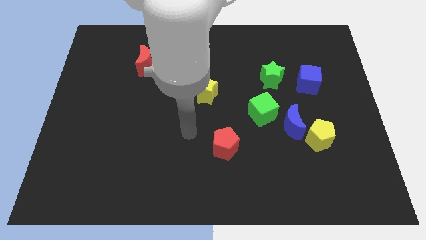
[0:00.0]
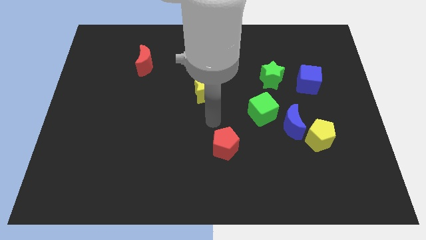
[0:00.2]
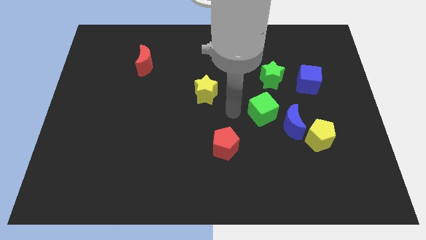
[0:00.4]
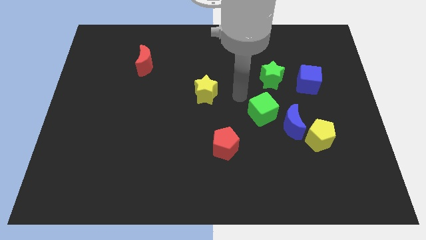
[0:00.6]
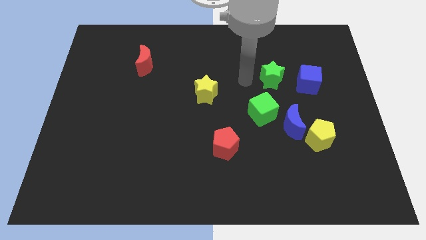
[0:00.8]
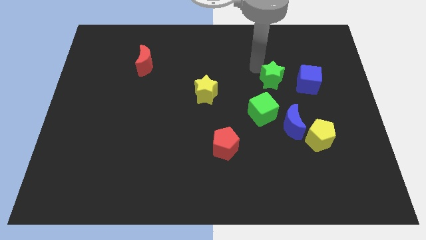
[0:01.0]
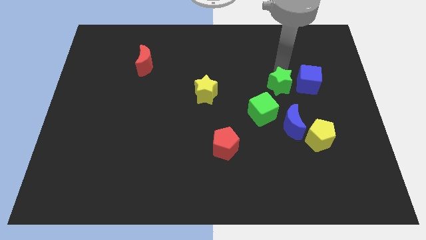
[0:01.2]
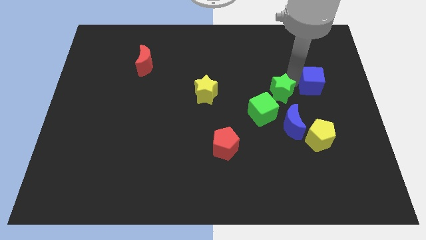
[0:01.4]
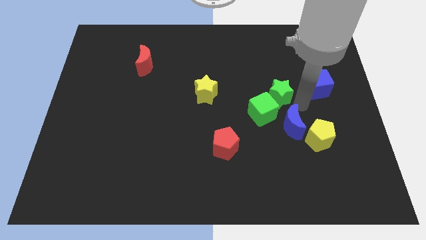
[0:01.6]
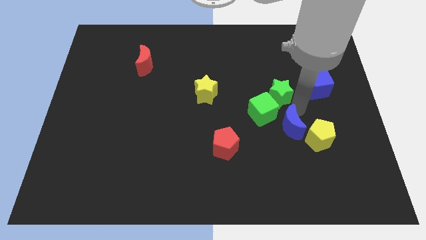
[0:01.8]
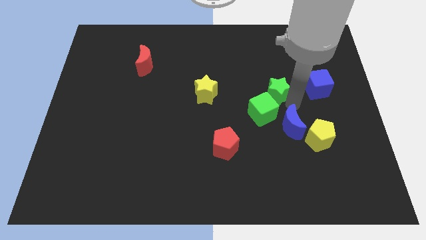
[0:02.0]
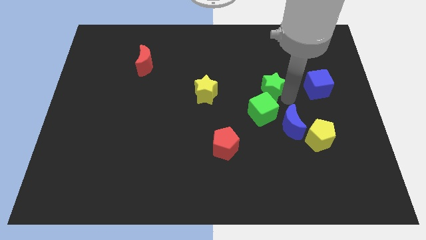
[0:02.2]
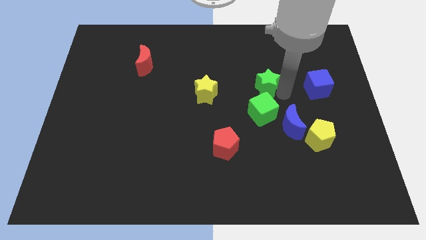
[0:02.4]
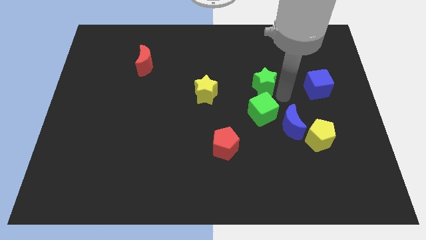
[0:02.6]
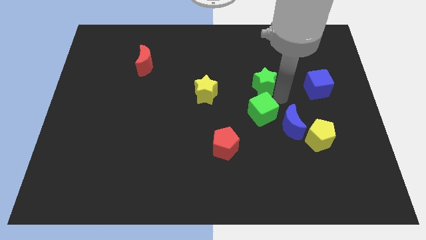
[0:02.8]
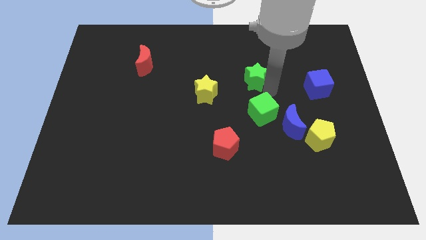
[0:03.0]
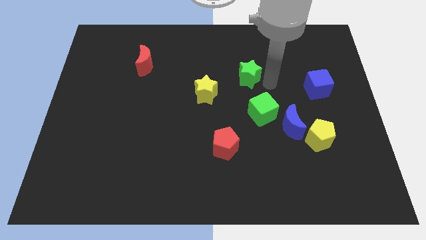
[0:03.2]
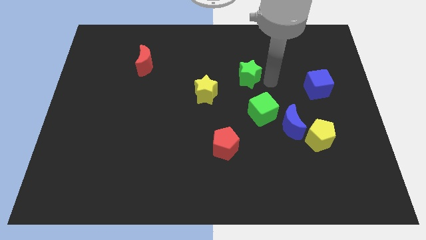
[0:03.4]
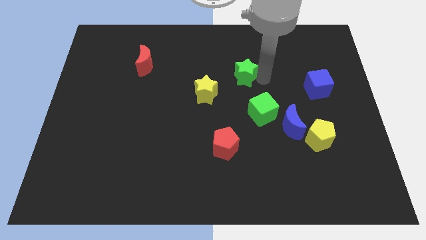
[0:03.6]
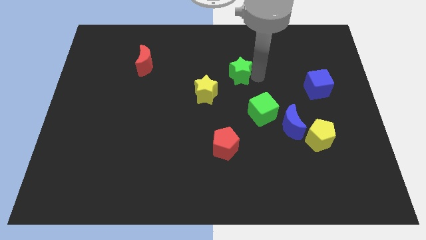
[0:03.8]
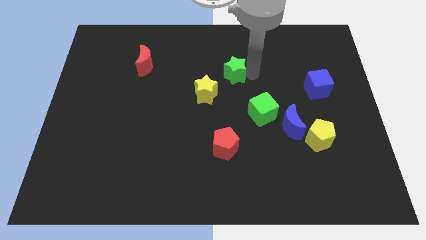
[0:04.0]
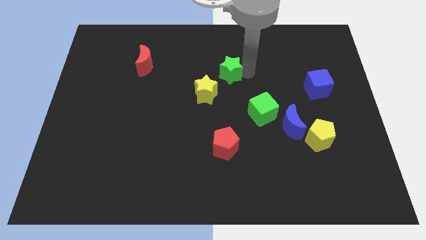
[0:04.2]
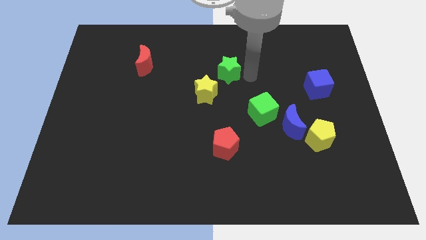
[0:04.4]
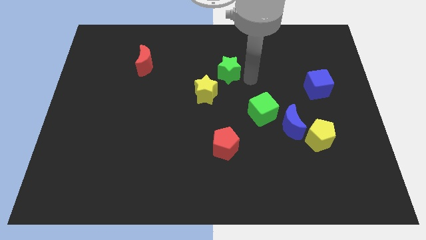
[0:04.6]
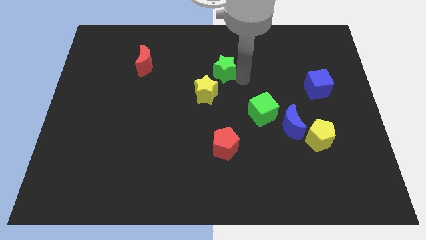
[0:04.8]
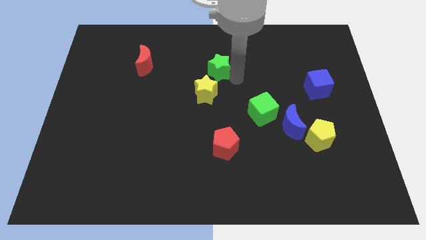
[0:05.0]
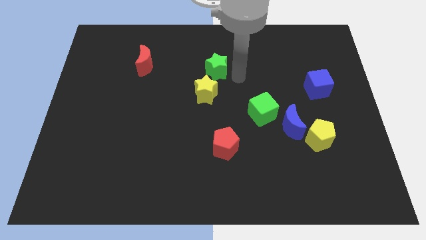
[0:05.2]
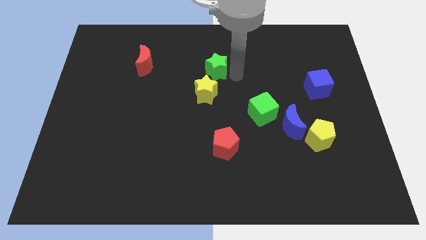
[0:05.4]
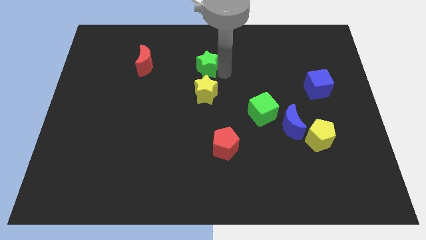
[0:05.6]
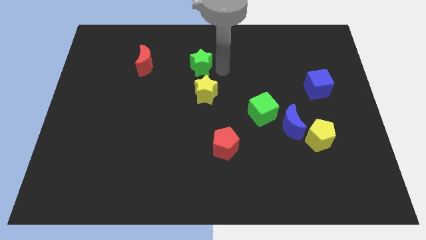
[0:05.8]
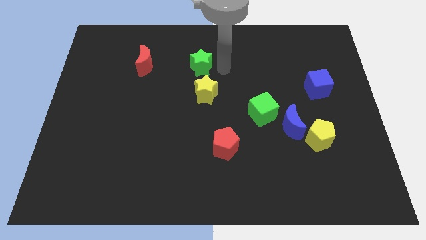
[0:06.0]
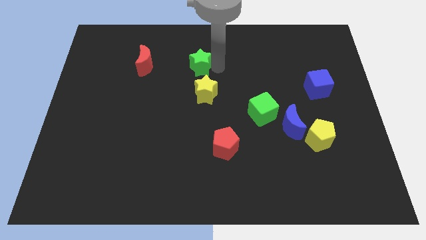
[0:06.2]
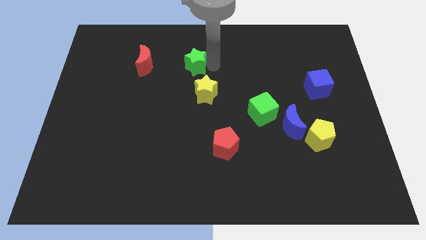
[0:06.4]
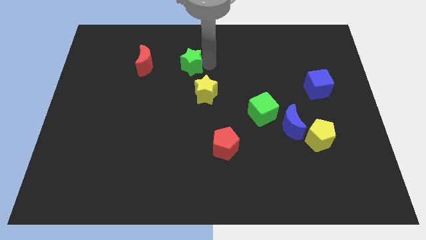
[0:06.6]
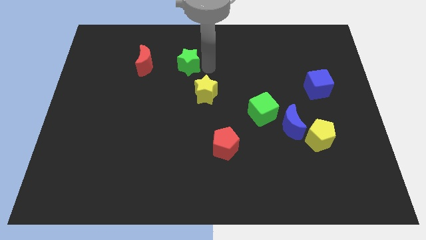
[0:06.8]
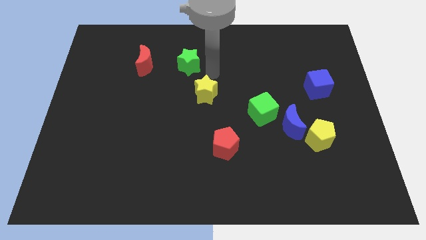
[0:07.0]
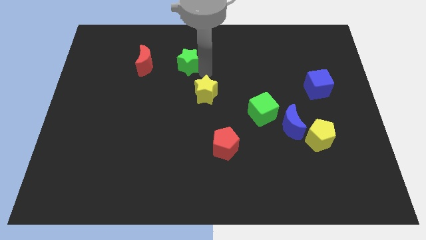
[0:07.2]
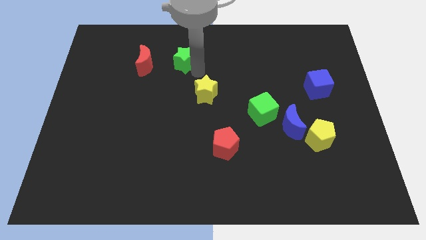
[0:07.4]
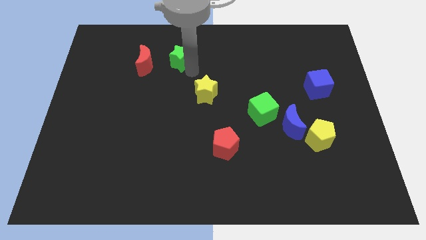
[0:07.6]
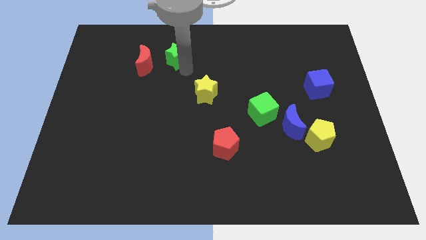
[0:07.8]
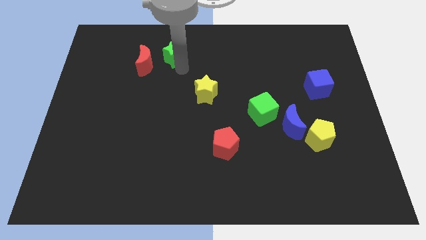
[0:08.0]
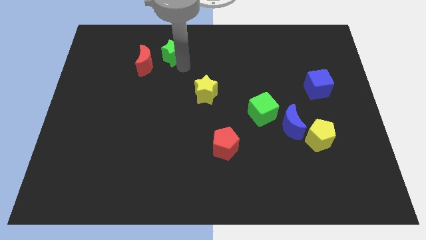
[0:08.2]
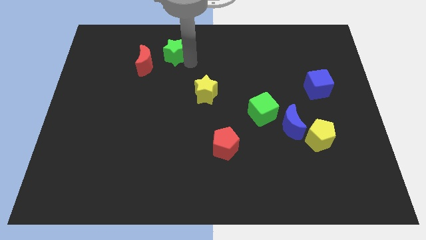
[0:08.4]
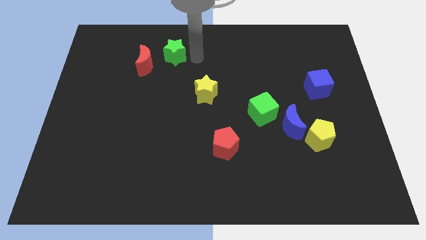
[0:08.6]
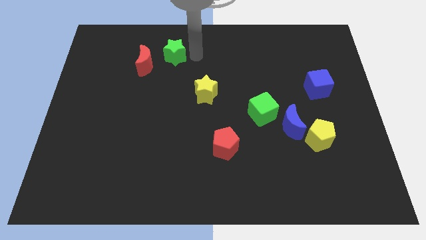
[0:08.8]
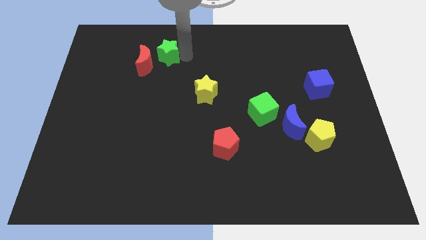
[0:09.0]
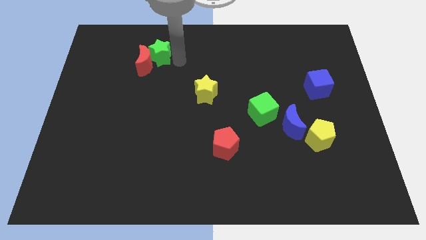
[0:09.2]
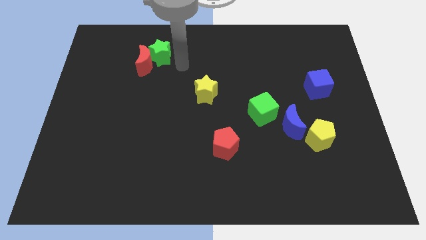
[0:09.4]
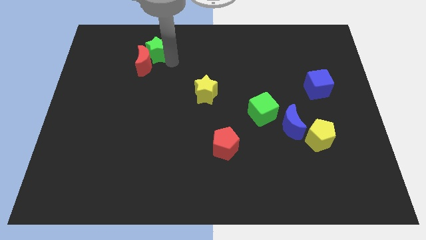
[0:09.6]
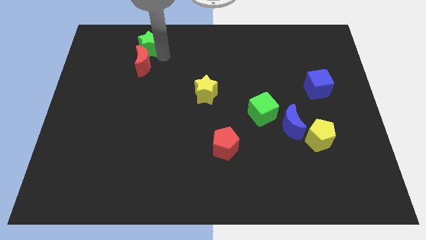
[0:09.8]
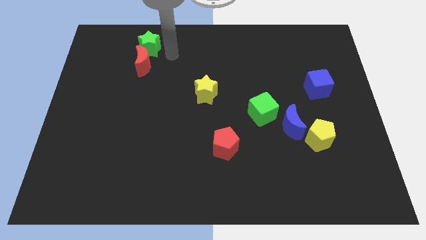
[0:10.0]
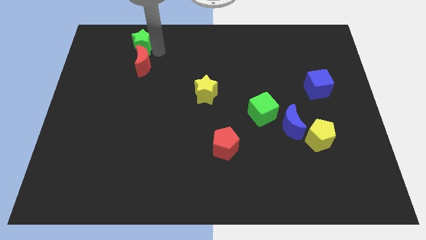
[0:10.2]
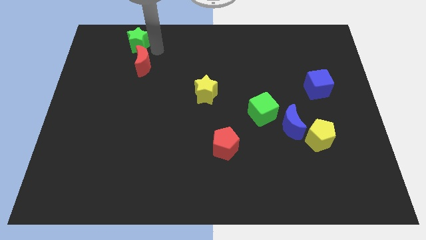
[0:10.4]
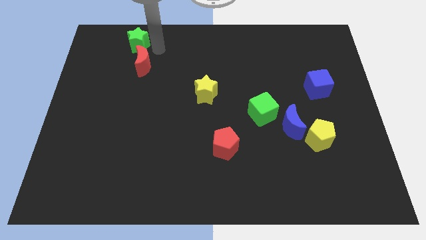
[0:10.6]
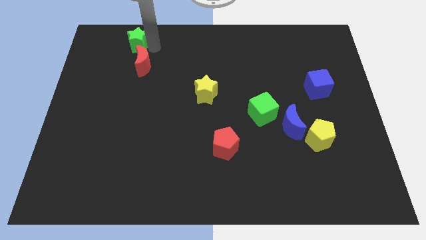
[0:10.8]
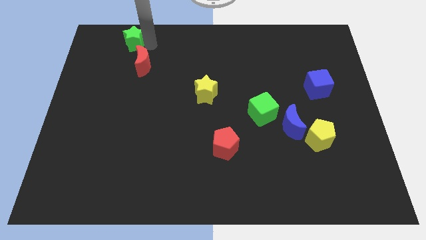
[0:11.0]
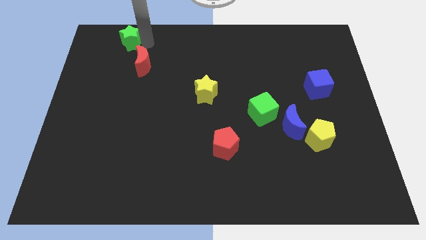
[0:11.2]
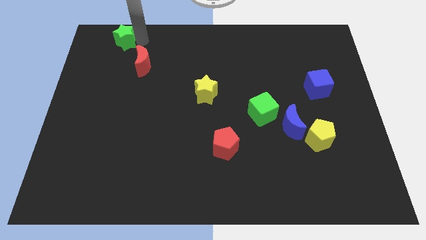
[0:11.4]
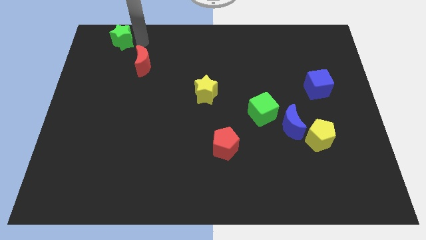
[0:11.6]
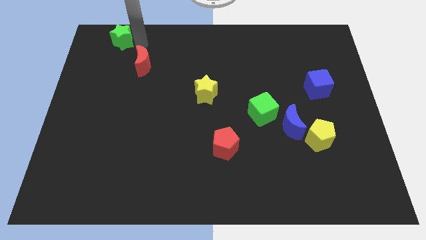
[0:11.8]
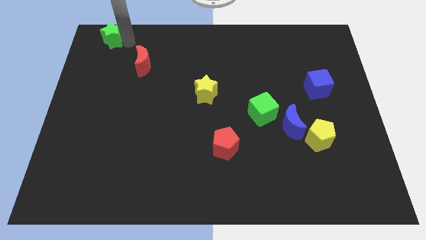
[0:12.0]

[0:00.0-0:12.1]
put the green star to the top left

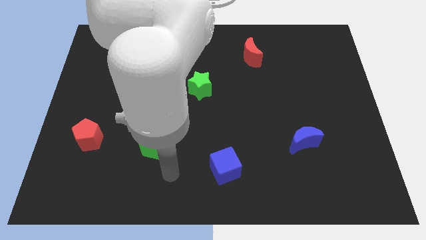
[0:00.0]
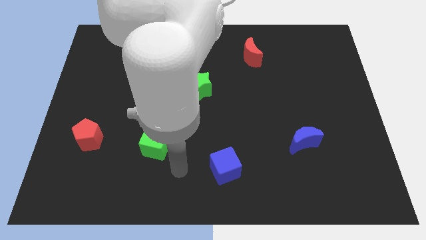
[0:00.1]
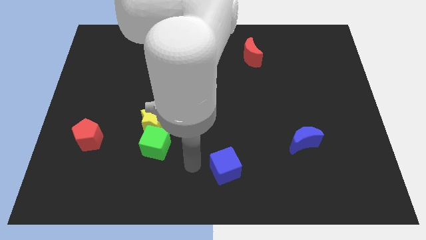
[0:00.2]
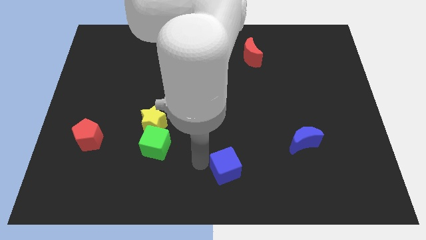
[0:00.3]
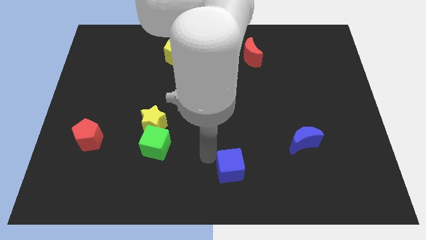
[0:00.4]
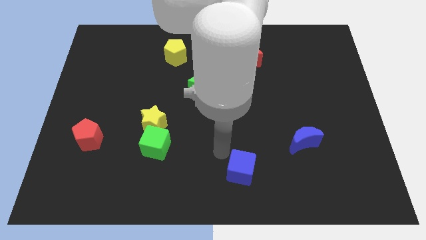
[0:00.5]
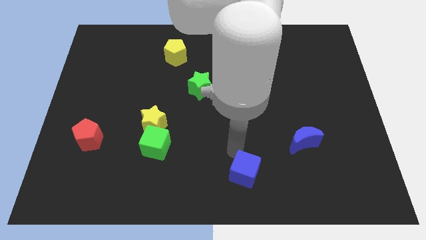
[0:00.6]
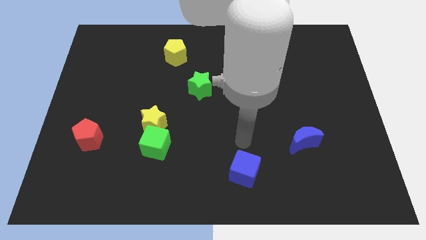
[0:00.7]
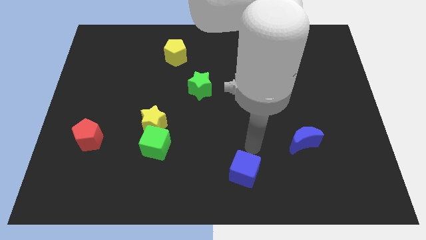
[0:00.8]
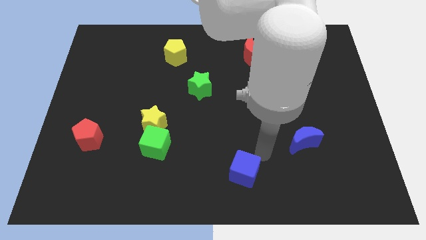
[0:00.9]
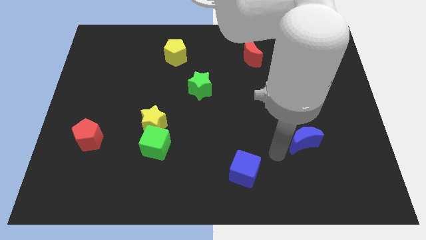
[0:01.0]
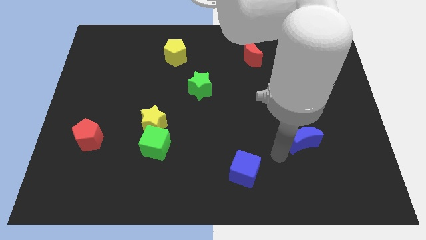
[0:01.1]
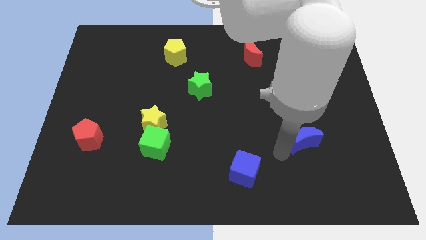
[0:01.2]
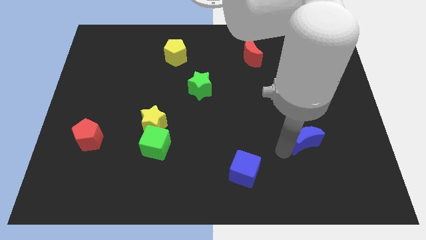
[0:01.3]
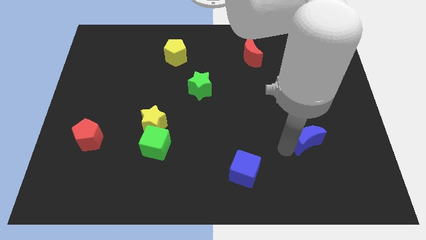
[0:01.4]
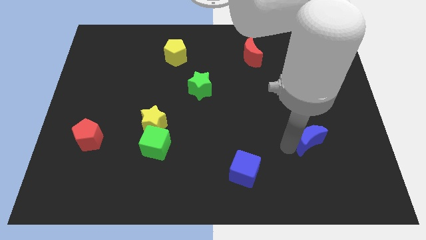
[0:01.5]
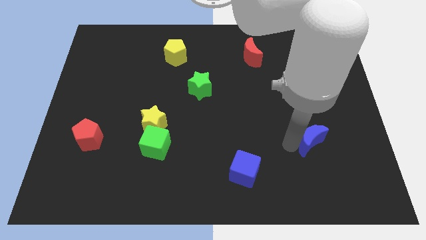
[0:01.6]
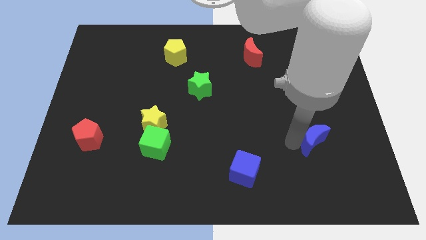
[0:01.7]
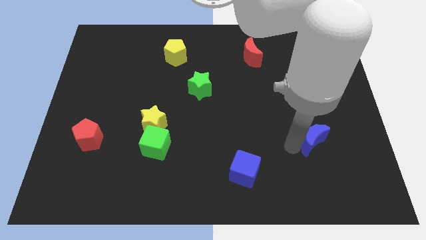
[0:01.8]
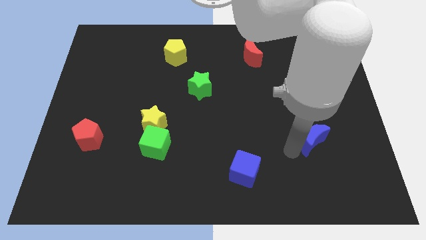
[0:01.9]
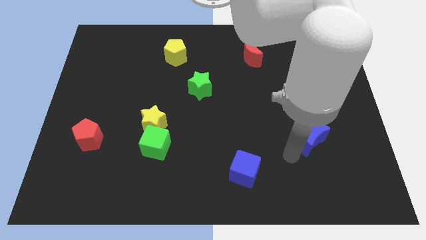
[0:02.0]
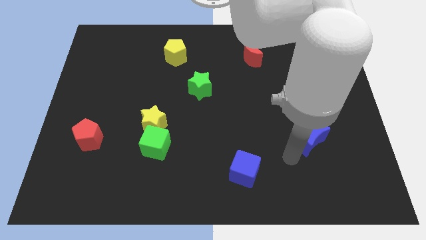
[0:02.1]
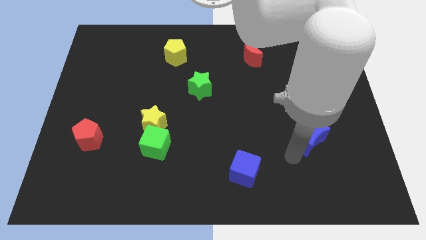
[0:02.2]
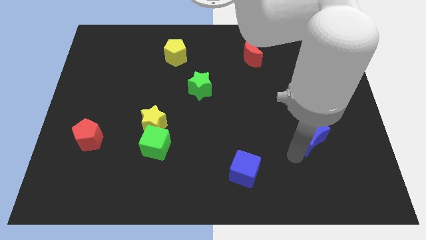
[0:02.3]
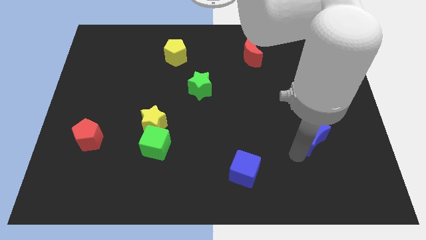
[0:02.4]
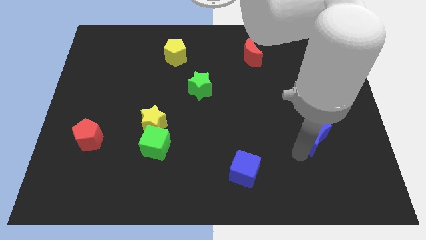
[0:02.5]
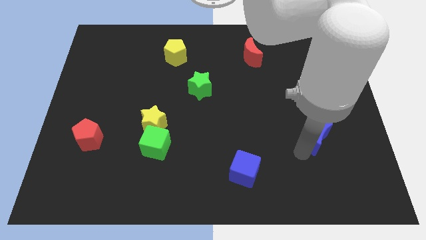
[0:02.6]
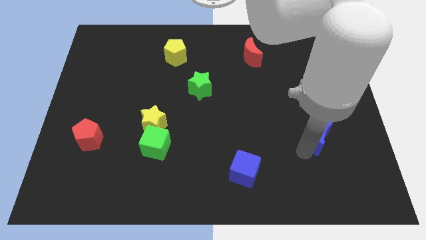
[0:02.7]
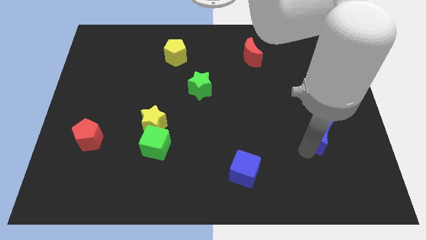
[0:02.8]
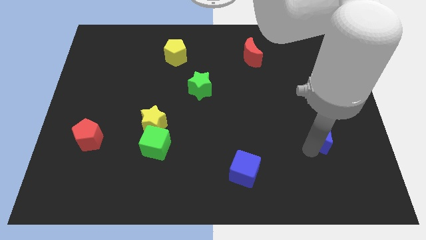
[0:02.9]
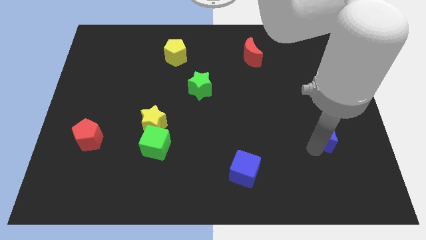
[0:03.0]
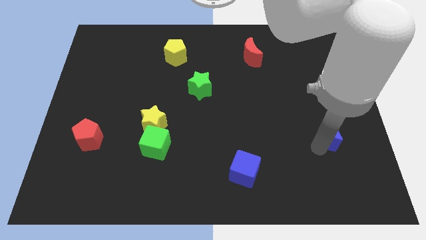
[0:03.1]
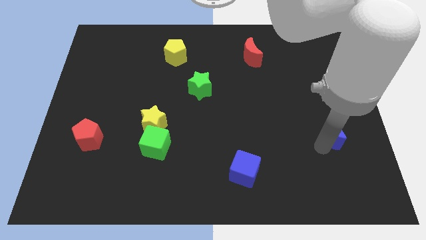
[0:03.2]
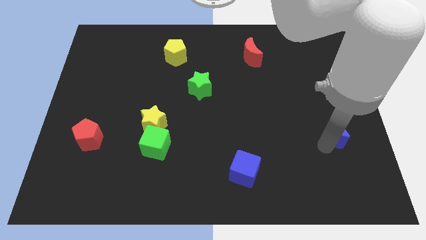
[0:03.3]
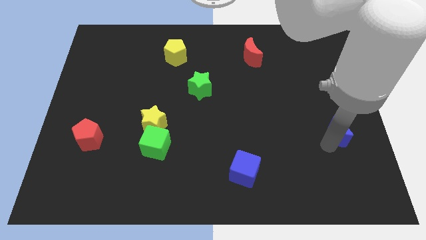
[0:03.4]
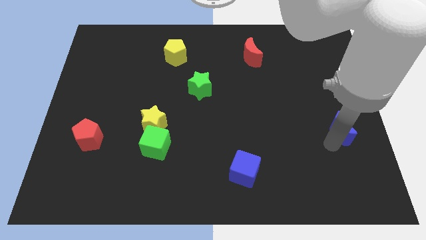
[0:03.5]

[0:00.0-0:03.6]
move the blue moon to the center right
